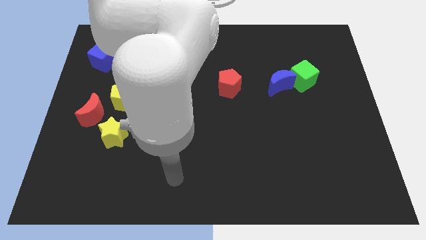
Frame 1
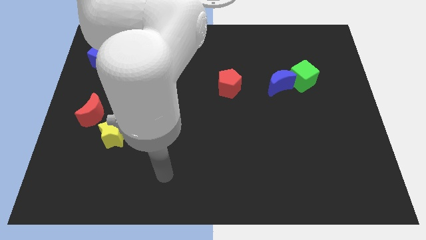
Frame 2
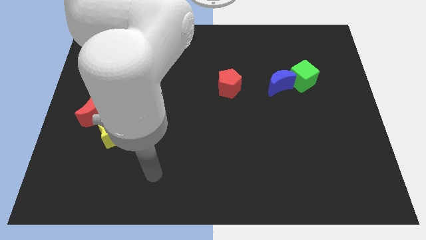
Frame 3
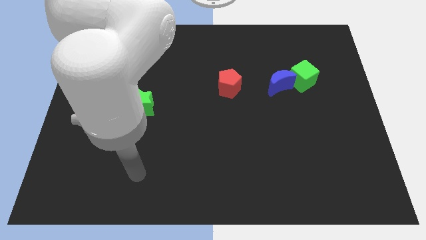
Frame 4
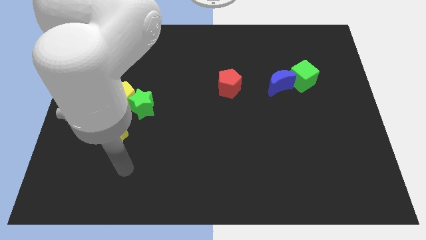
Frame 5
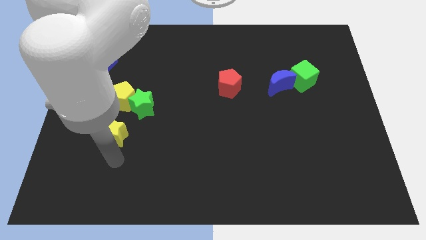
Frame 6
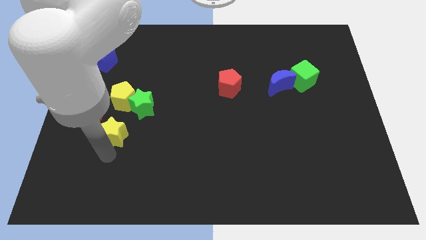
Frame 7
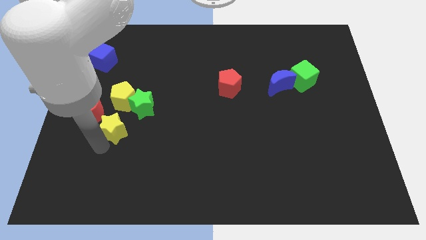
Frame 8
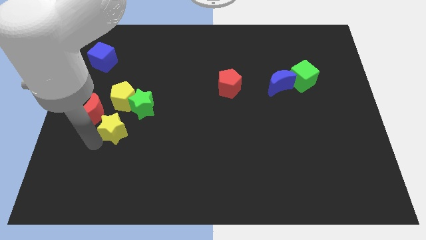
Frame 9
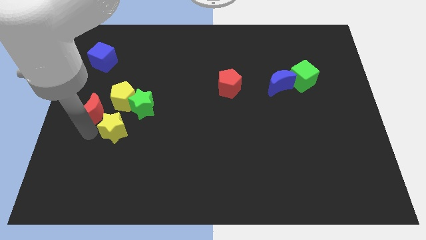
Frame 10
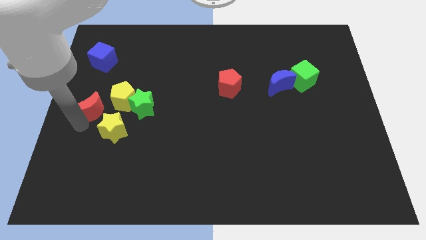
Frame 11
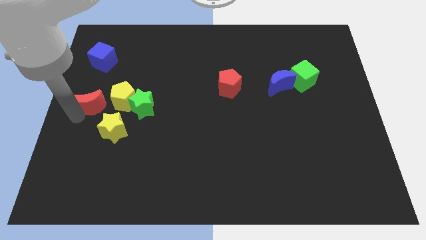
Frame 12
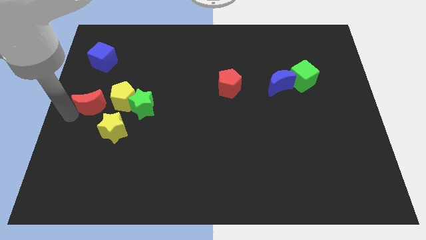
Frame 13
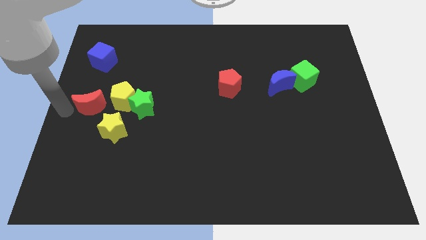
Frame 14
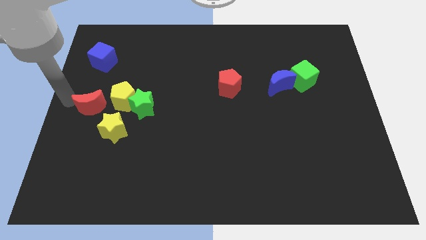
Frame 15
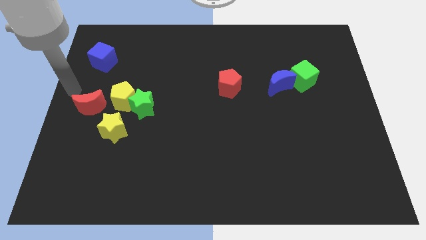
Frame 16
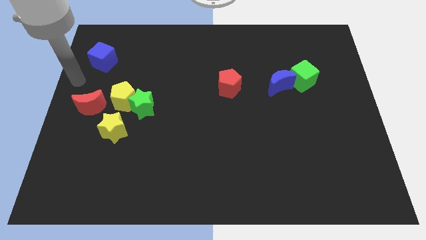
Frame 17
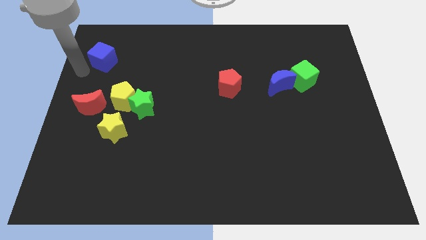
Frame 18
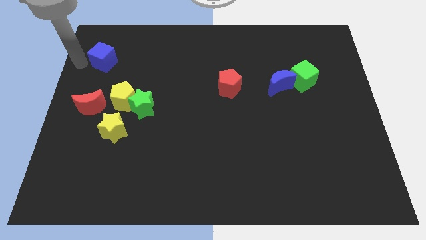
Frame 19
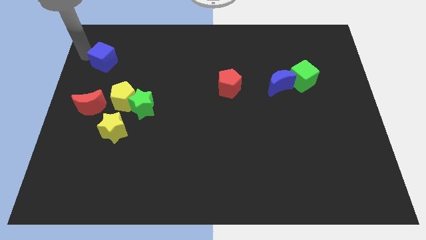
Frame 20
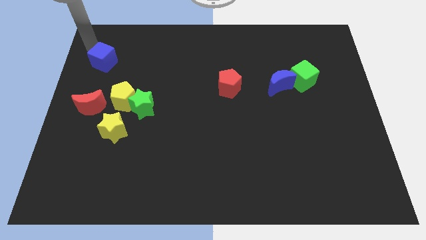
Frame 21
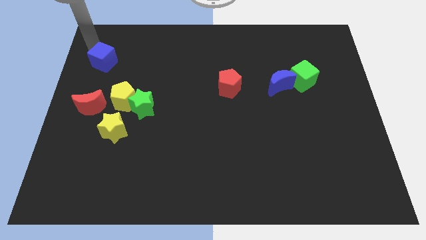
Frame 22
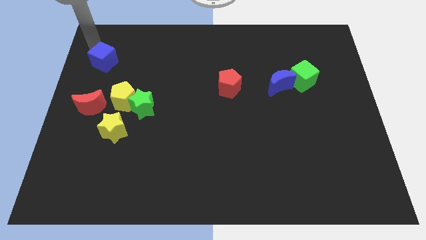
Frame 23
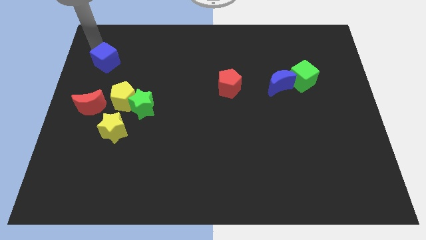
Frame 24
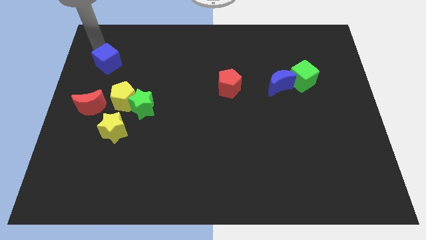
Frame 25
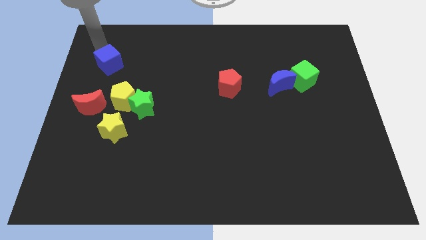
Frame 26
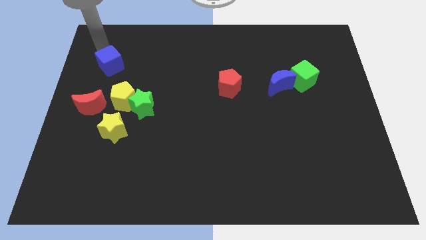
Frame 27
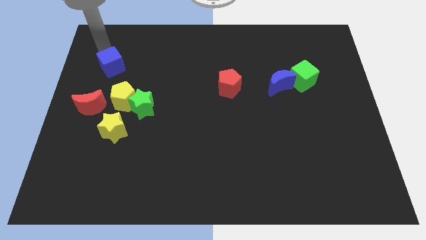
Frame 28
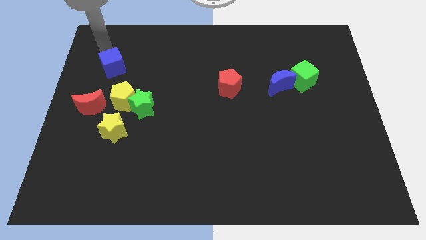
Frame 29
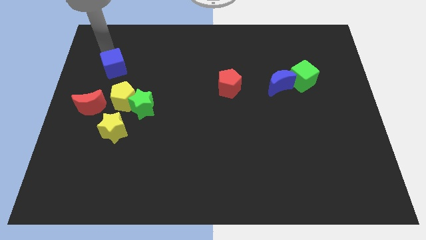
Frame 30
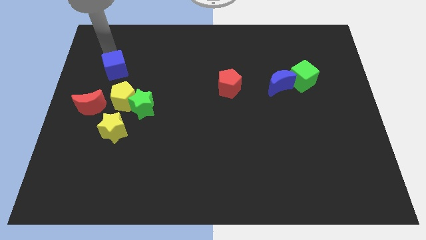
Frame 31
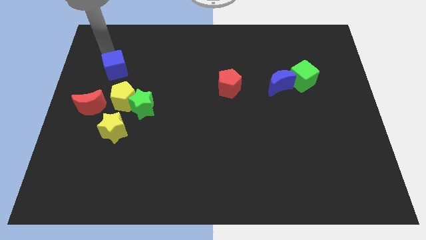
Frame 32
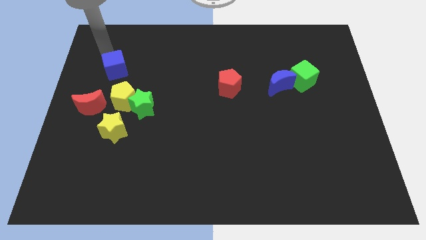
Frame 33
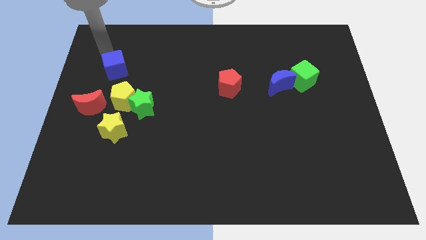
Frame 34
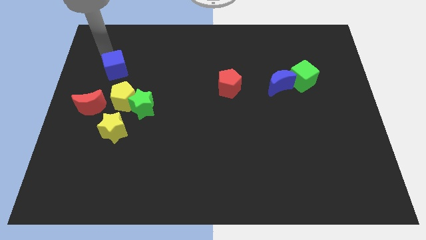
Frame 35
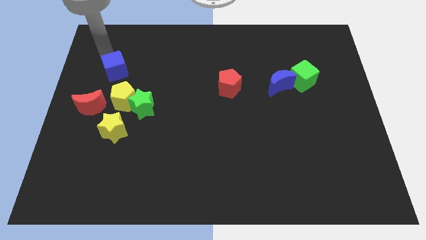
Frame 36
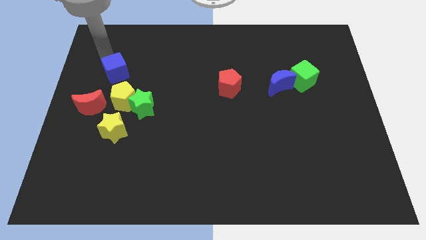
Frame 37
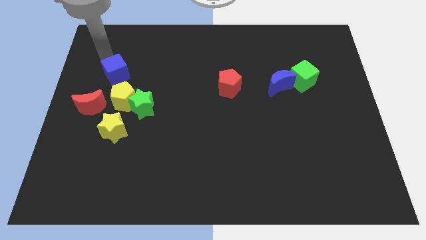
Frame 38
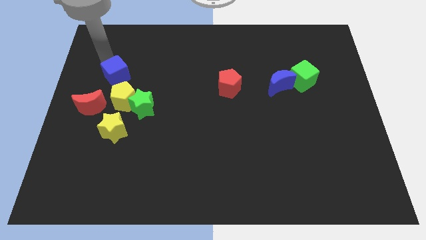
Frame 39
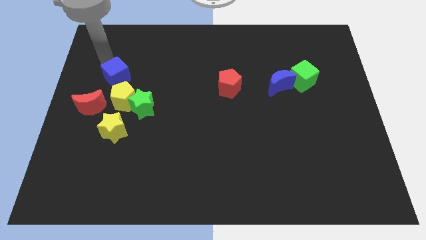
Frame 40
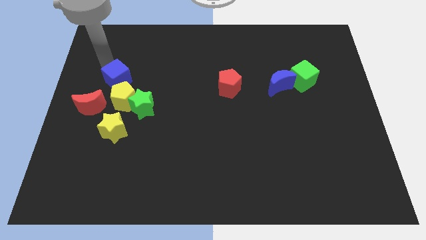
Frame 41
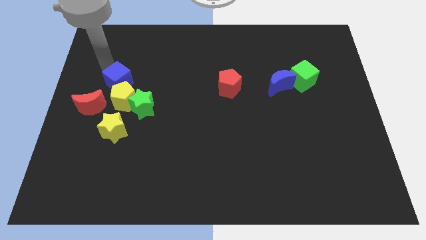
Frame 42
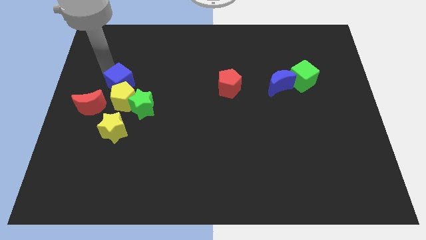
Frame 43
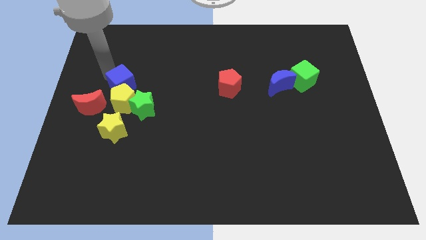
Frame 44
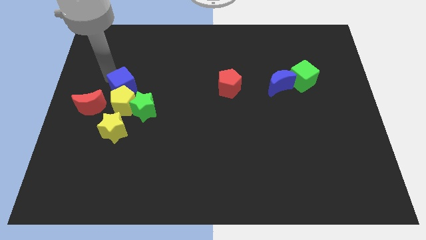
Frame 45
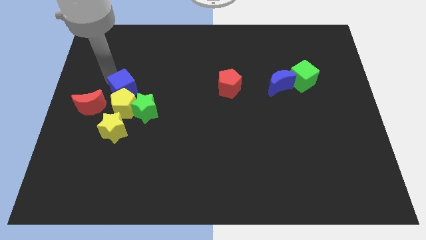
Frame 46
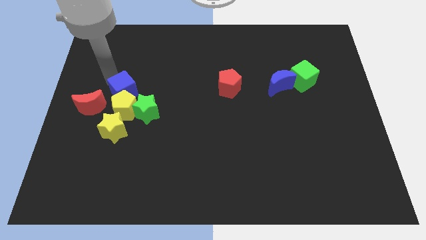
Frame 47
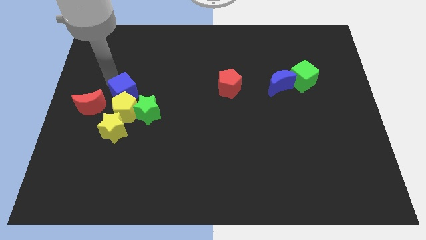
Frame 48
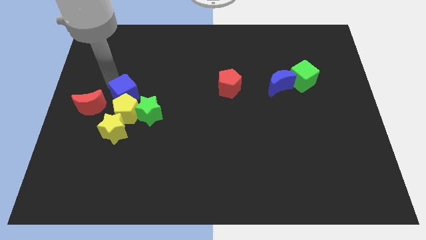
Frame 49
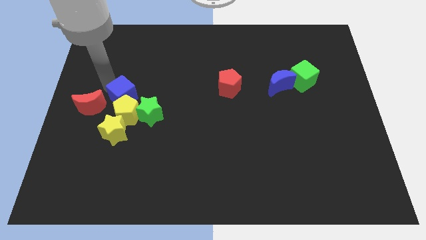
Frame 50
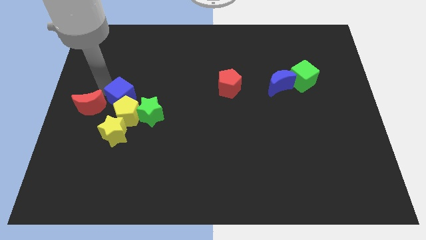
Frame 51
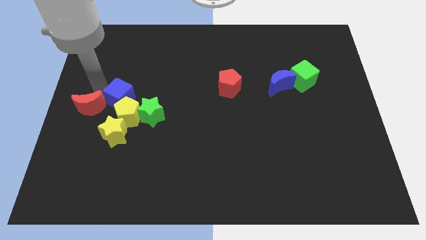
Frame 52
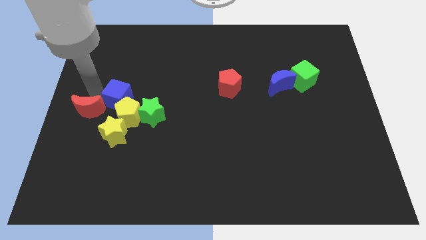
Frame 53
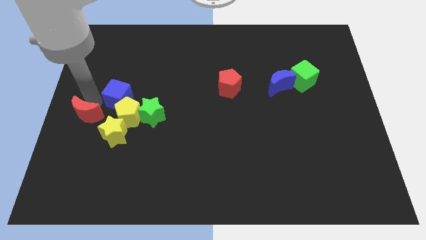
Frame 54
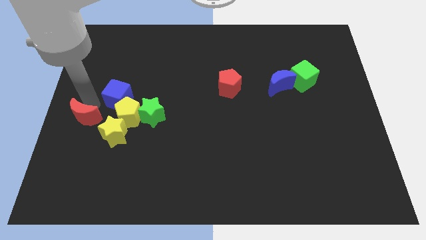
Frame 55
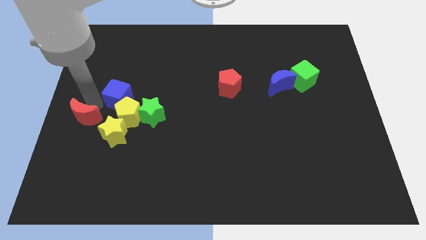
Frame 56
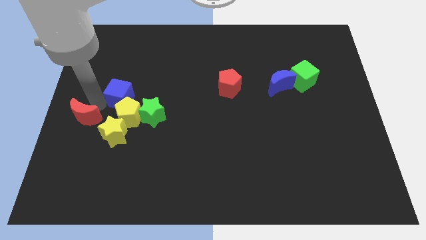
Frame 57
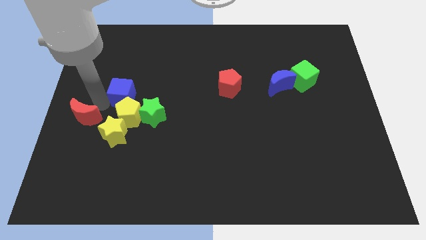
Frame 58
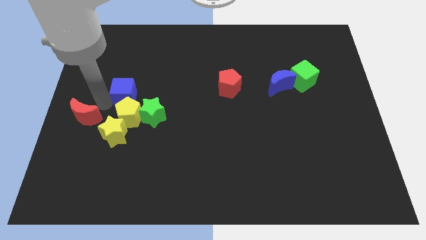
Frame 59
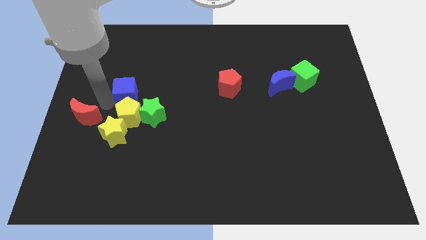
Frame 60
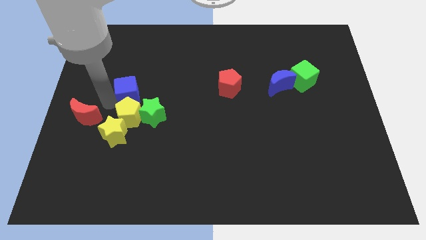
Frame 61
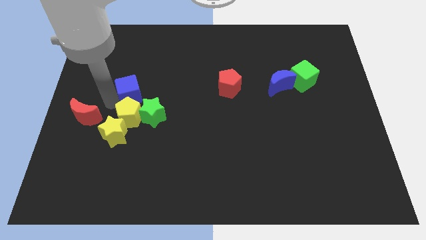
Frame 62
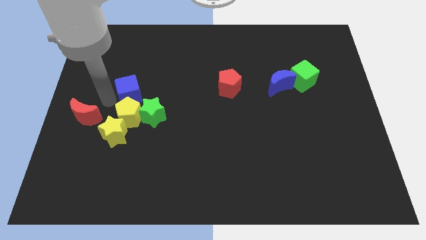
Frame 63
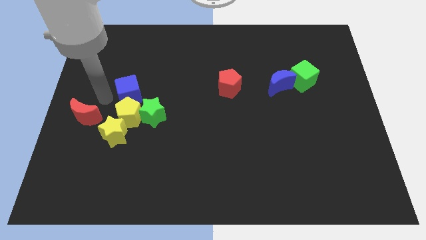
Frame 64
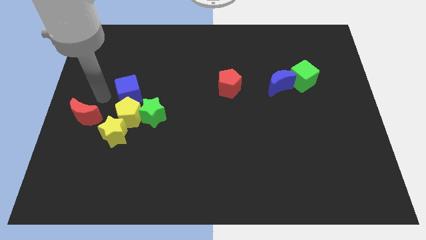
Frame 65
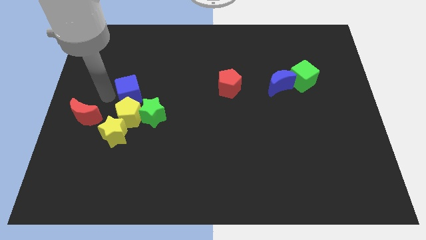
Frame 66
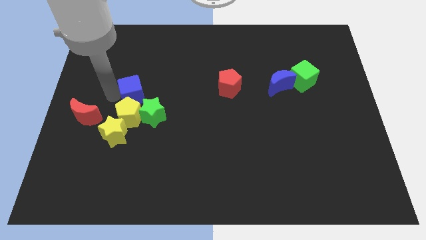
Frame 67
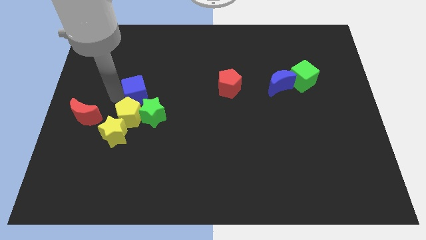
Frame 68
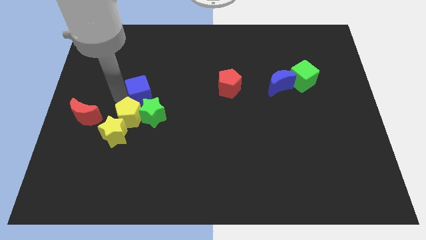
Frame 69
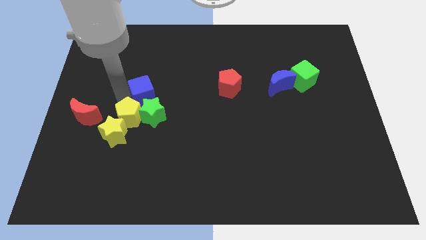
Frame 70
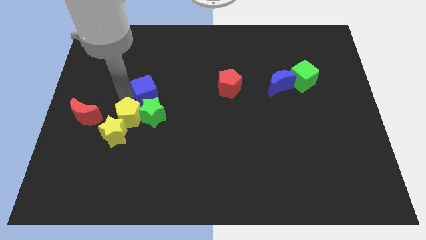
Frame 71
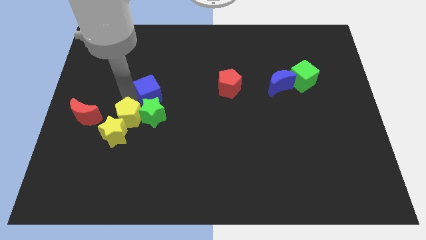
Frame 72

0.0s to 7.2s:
slide the blue cube to the green star

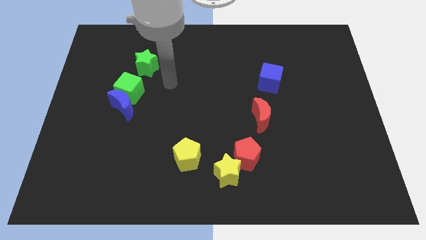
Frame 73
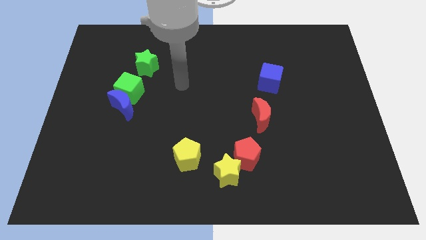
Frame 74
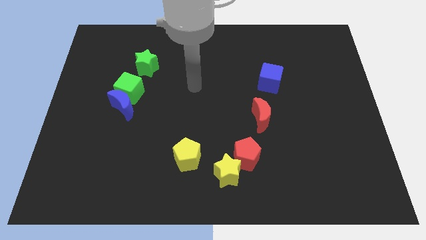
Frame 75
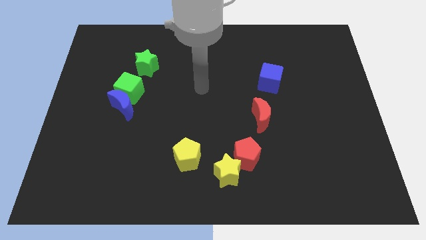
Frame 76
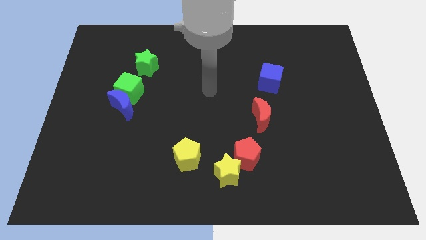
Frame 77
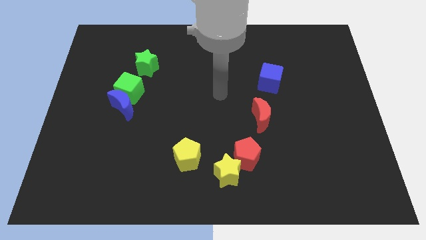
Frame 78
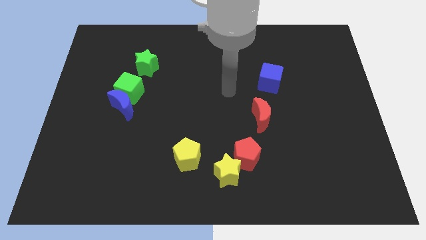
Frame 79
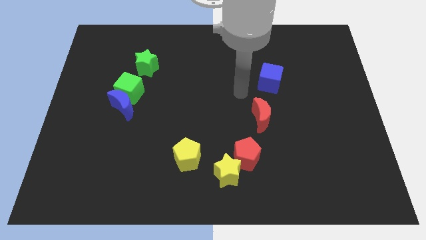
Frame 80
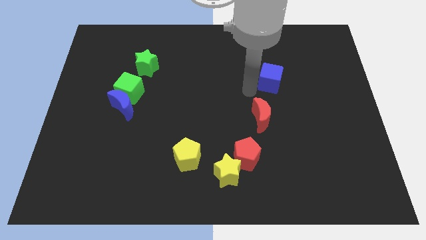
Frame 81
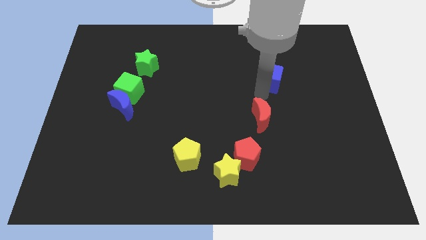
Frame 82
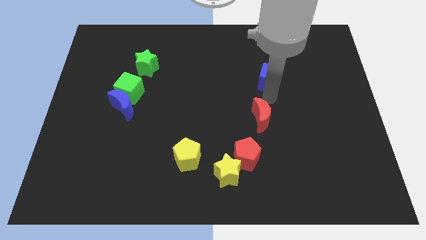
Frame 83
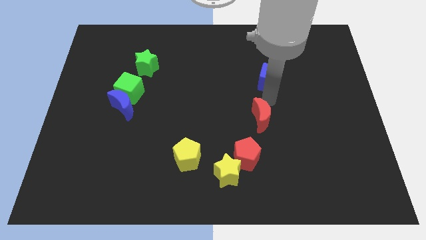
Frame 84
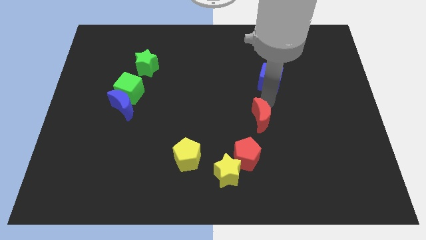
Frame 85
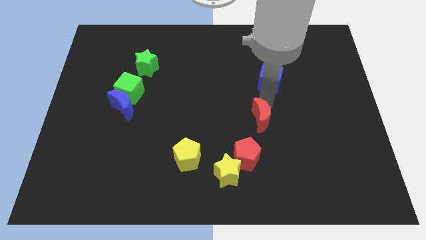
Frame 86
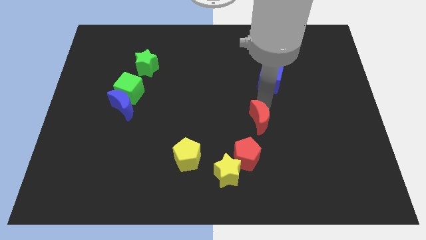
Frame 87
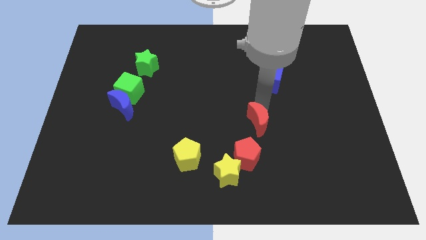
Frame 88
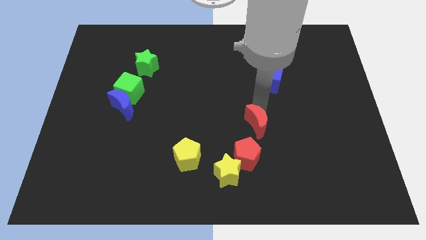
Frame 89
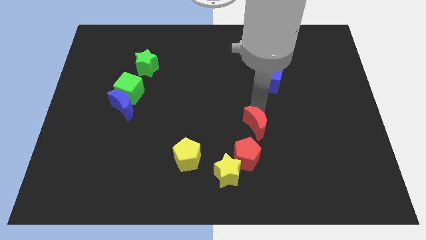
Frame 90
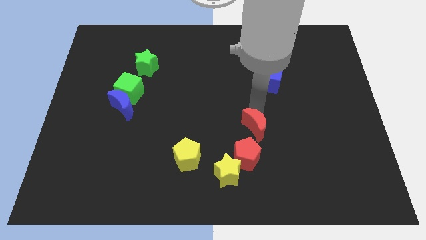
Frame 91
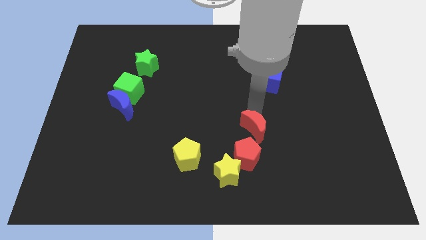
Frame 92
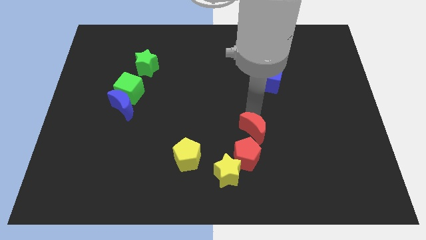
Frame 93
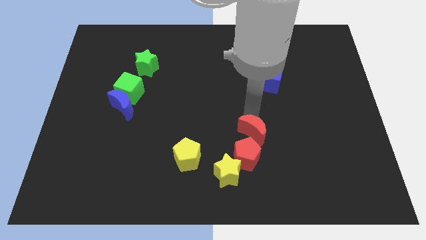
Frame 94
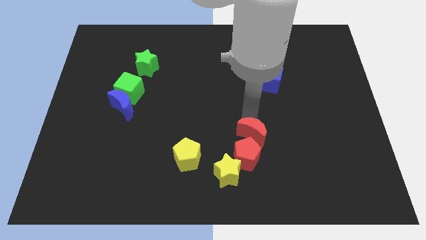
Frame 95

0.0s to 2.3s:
push the red moon towards the red pentagon
